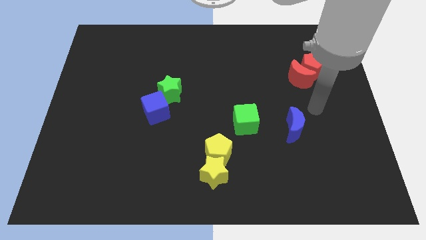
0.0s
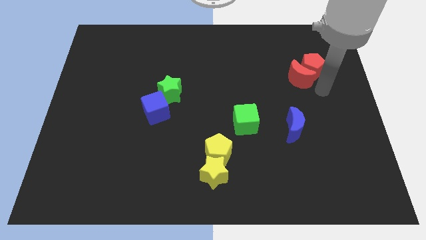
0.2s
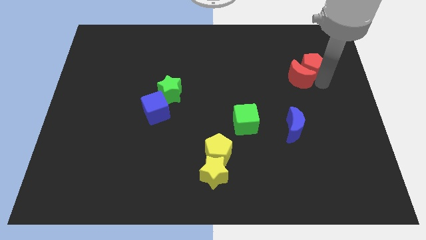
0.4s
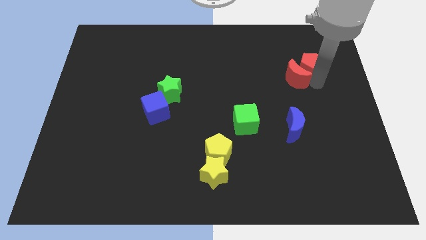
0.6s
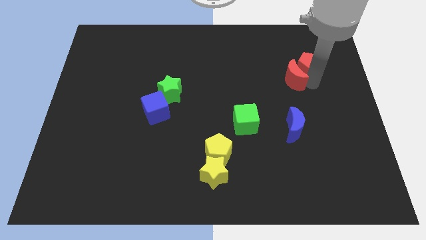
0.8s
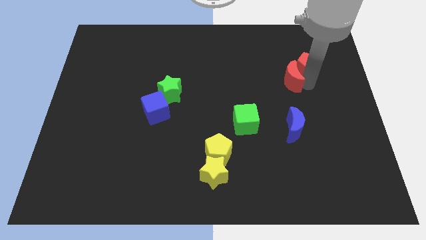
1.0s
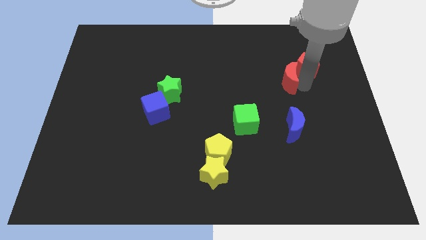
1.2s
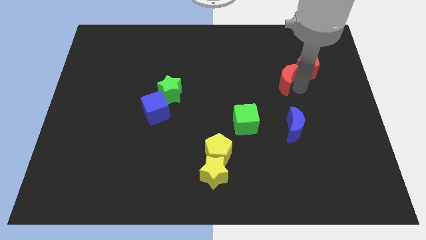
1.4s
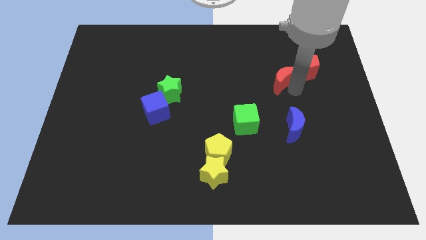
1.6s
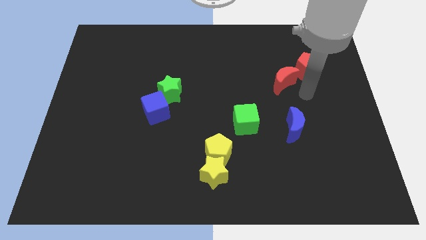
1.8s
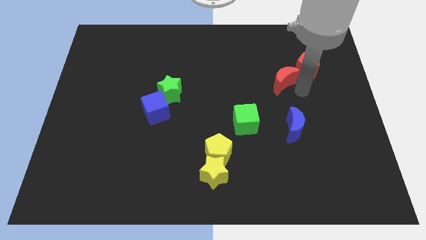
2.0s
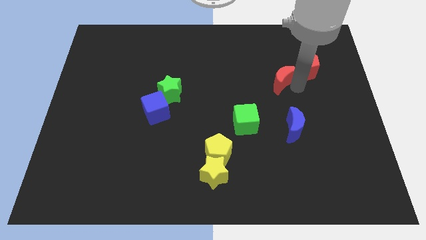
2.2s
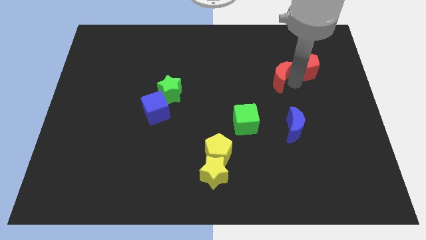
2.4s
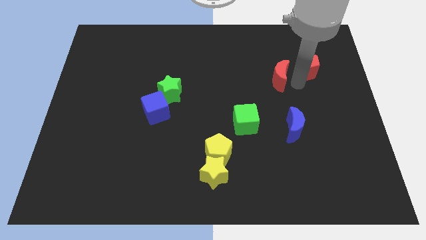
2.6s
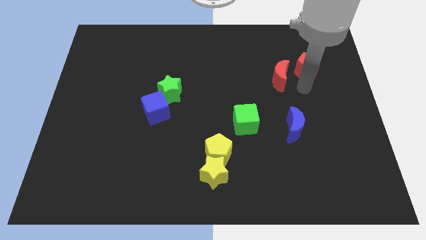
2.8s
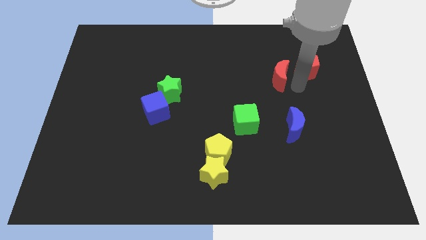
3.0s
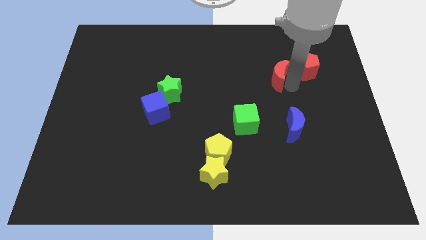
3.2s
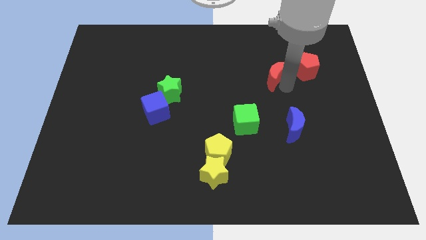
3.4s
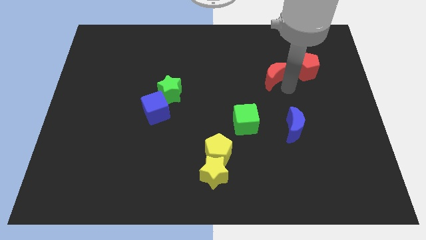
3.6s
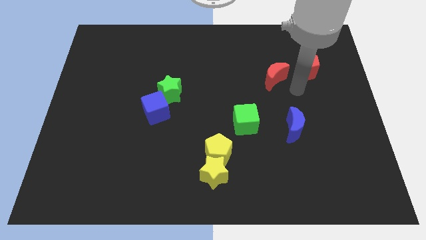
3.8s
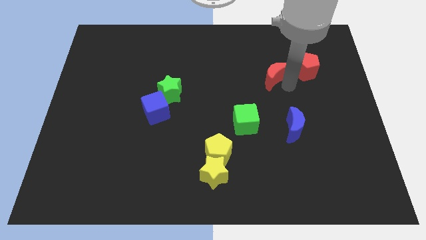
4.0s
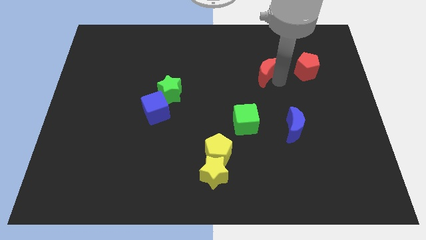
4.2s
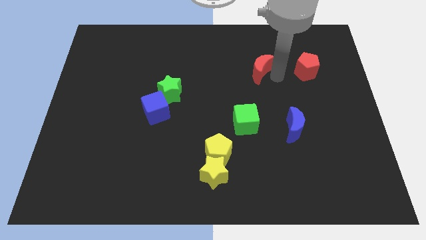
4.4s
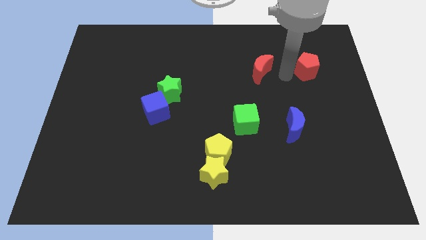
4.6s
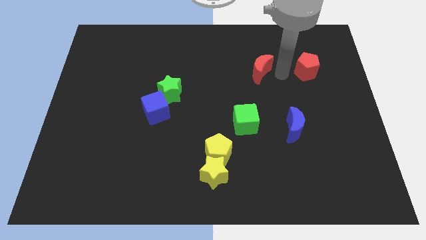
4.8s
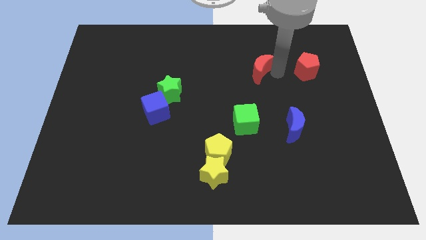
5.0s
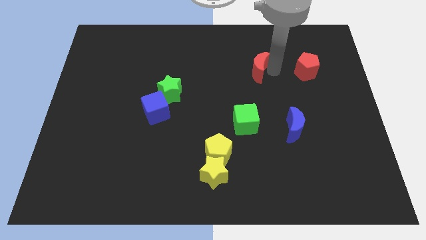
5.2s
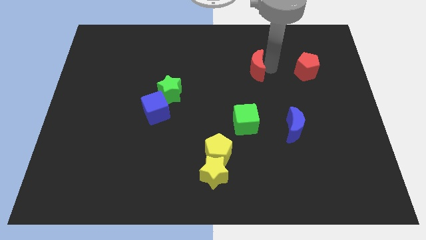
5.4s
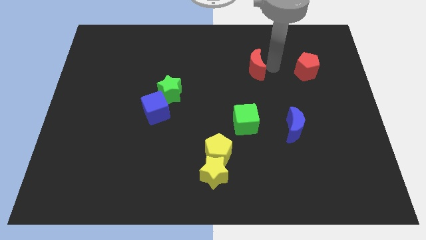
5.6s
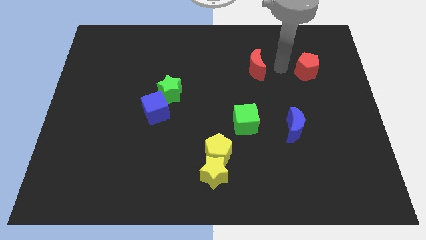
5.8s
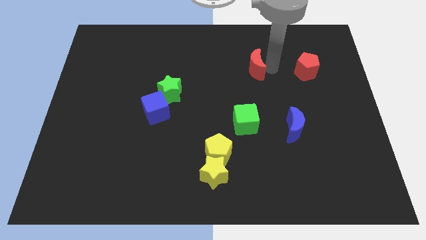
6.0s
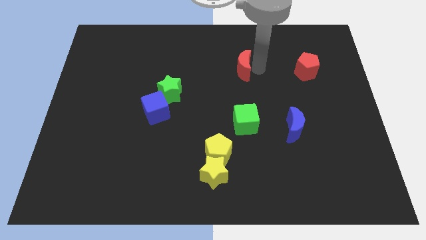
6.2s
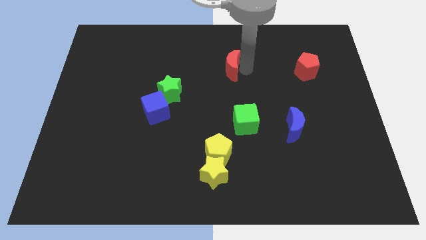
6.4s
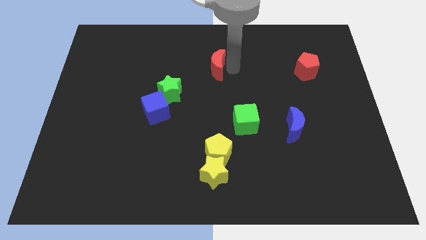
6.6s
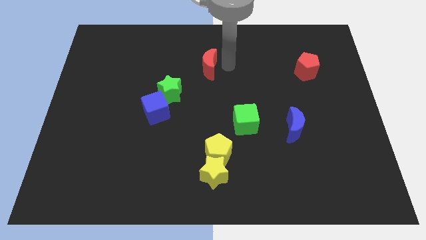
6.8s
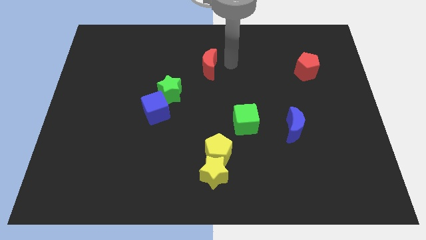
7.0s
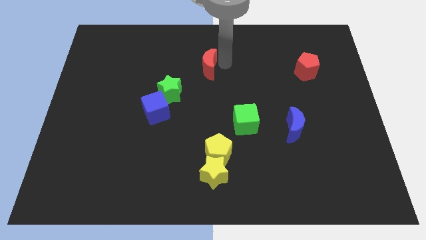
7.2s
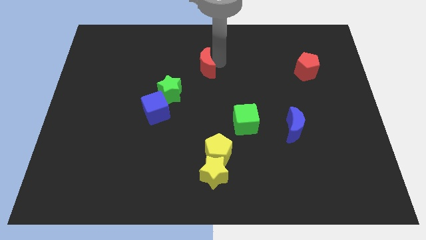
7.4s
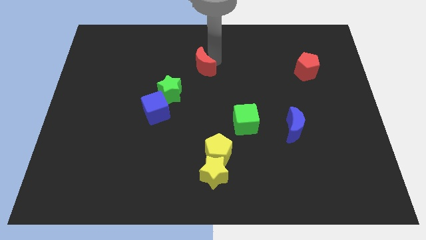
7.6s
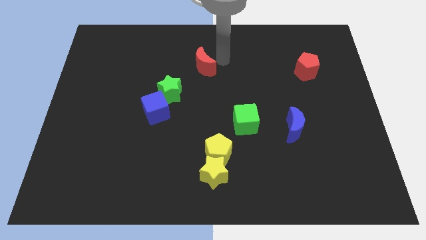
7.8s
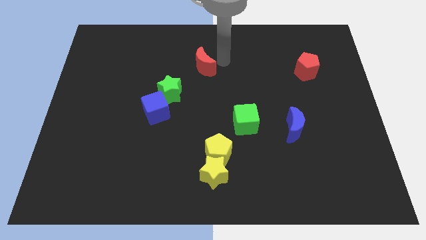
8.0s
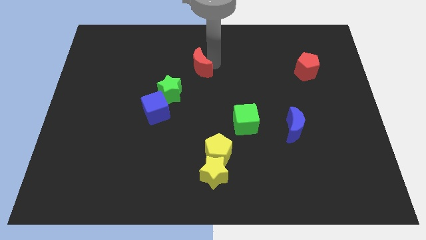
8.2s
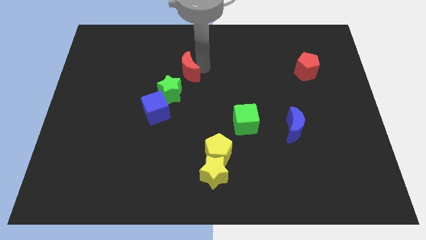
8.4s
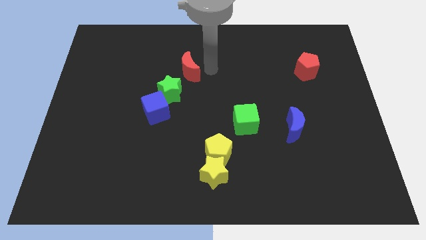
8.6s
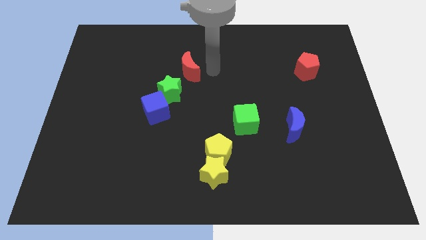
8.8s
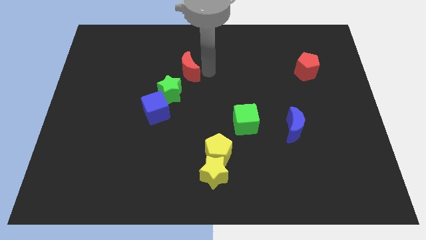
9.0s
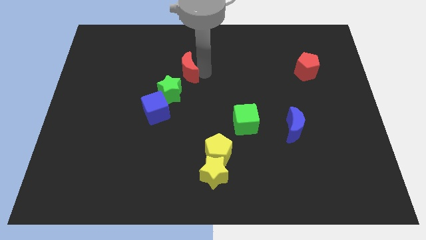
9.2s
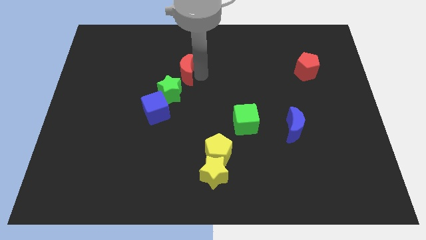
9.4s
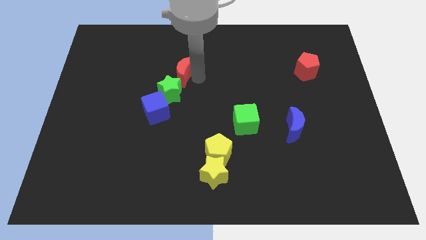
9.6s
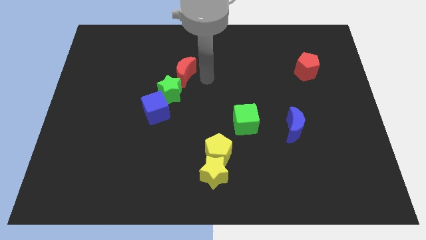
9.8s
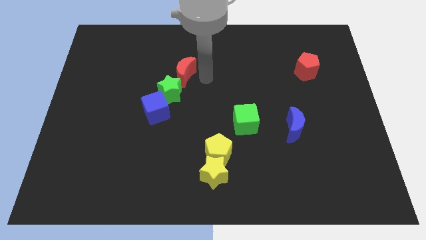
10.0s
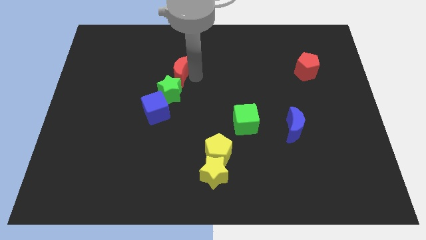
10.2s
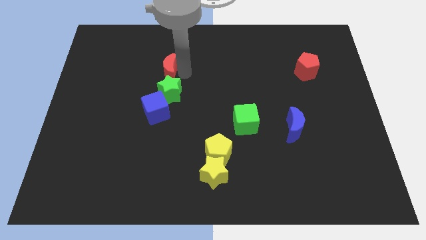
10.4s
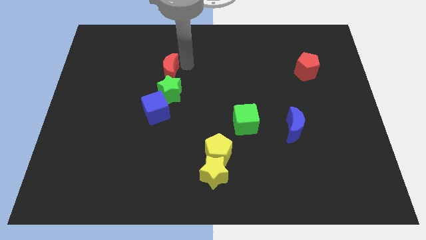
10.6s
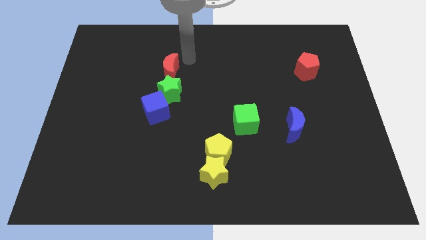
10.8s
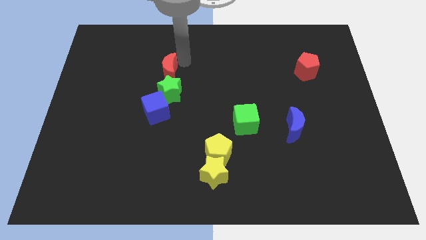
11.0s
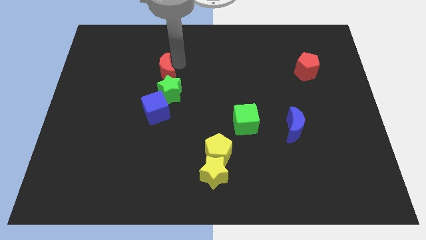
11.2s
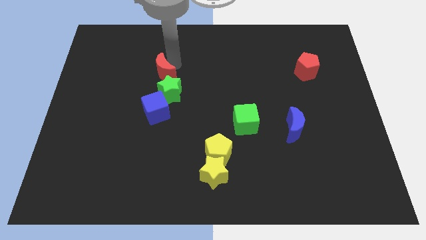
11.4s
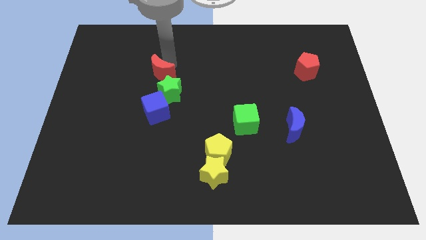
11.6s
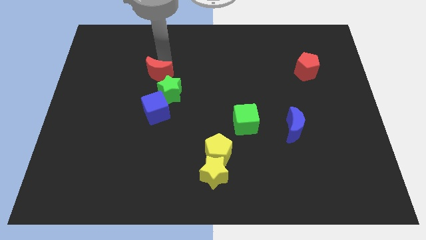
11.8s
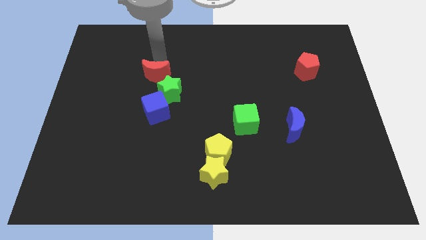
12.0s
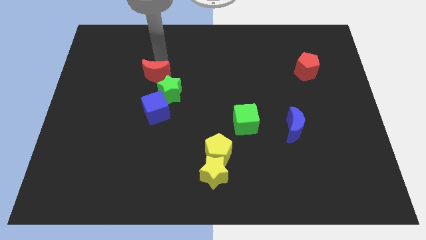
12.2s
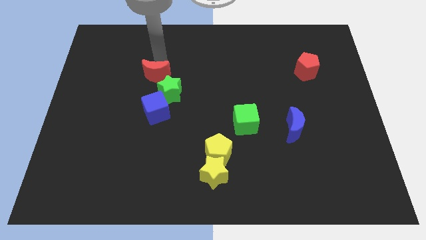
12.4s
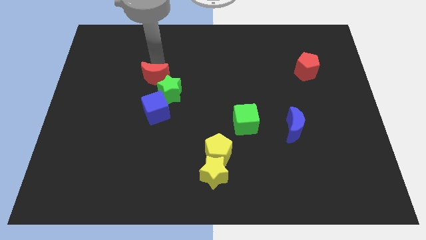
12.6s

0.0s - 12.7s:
put the red moon left of the green star

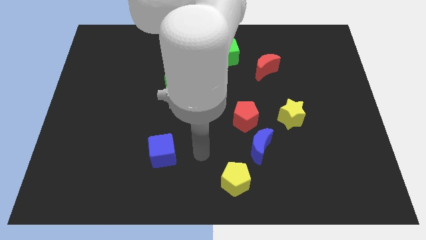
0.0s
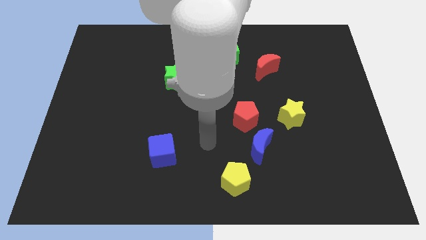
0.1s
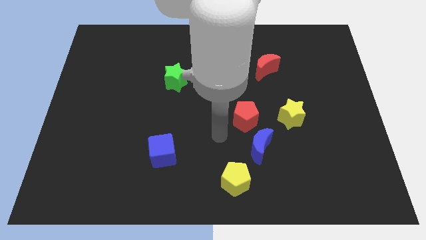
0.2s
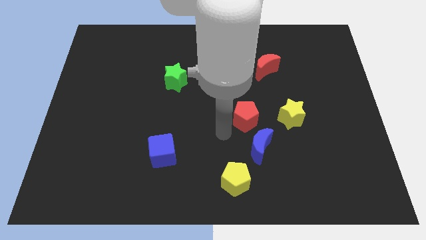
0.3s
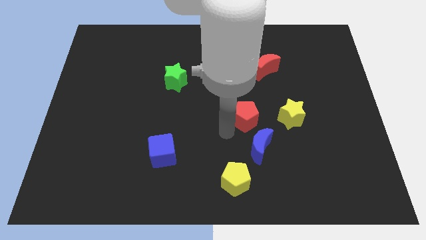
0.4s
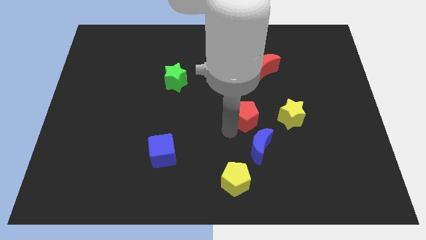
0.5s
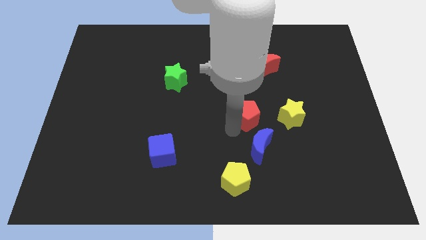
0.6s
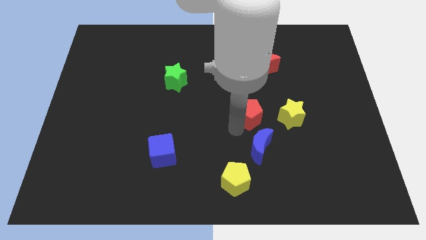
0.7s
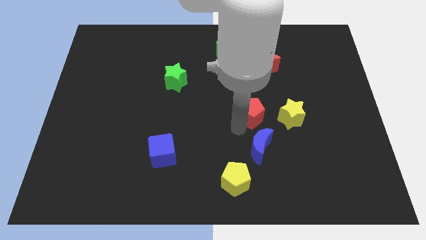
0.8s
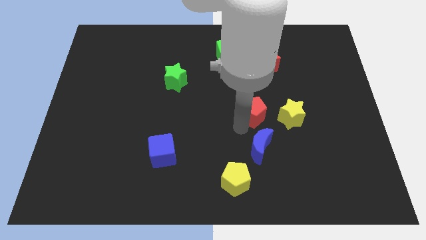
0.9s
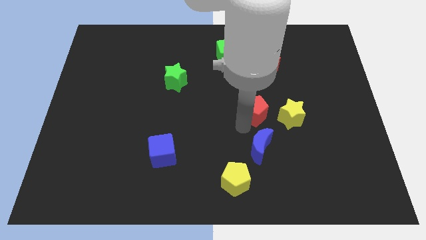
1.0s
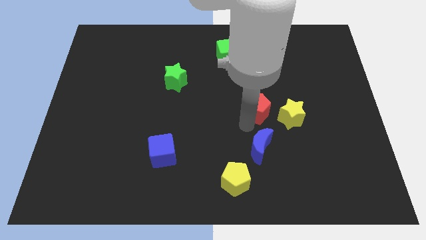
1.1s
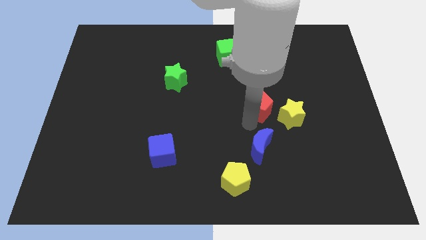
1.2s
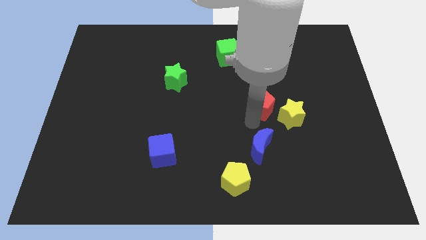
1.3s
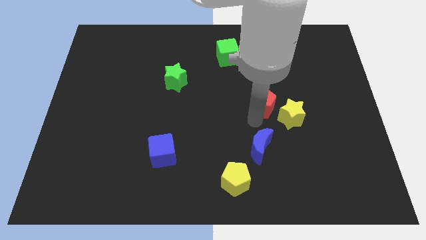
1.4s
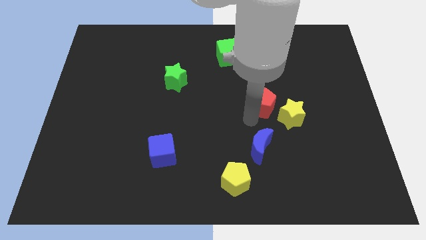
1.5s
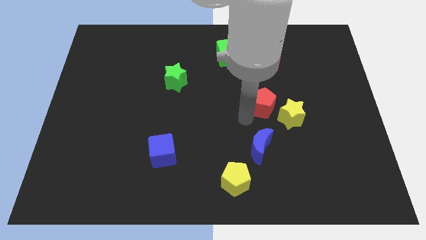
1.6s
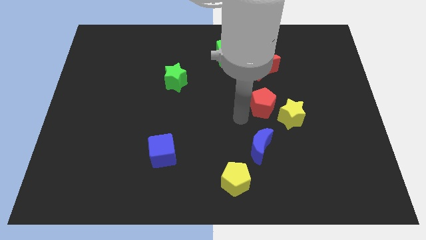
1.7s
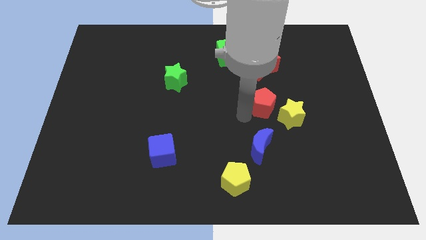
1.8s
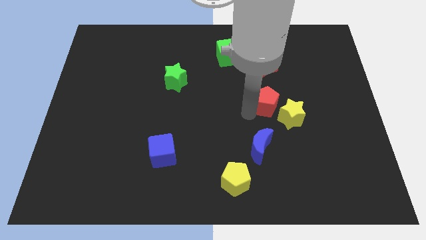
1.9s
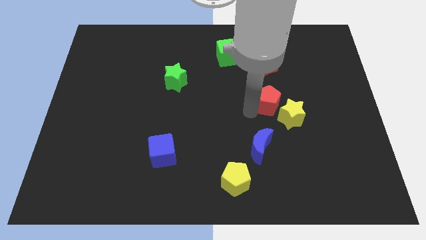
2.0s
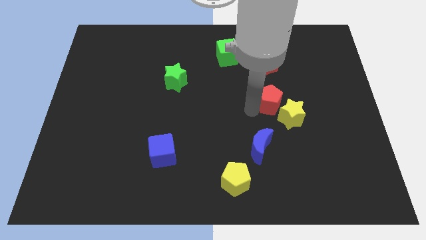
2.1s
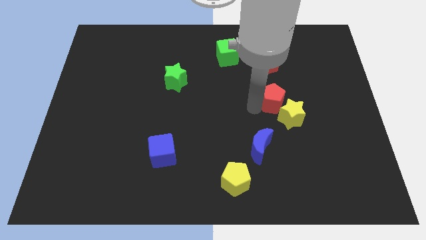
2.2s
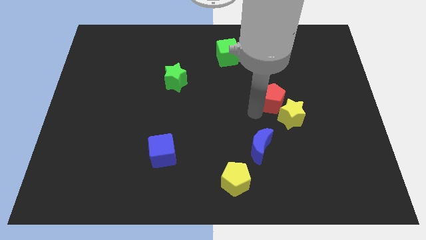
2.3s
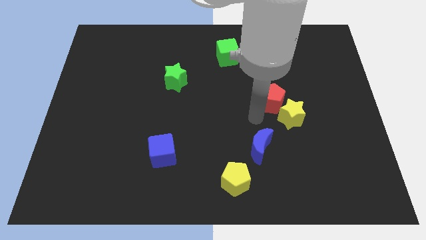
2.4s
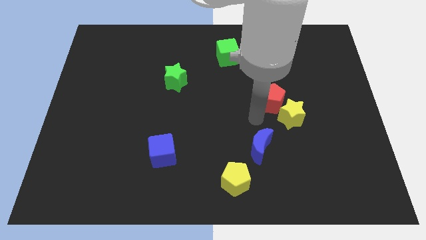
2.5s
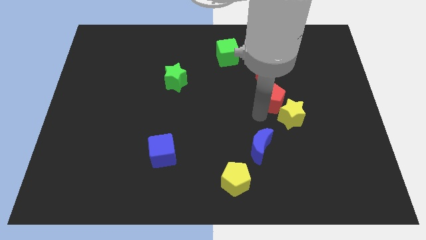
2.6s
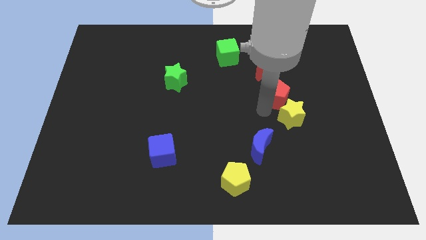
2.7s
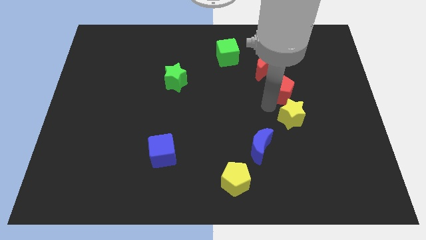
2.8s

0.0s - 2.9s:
move the red pentagon to the bottom right of the red moon
